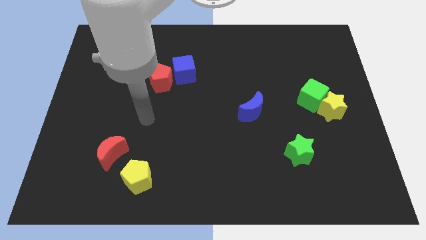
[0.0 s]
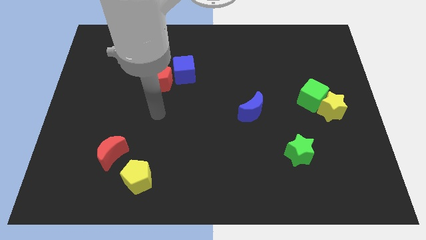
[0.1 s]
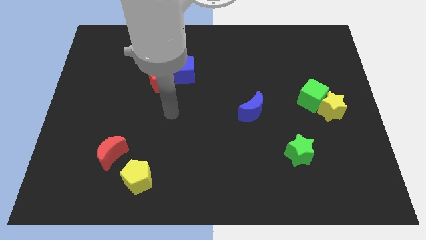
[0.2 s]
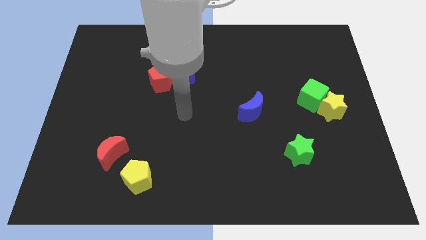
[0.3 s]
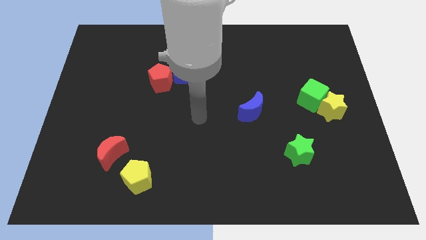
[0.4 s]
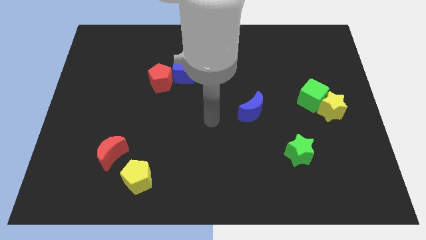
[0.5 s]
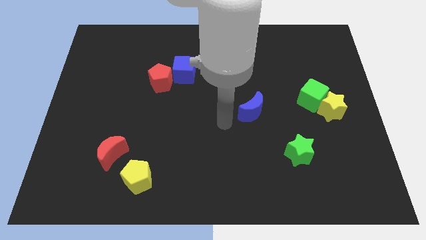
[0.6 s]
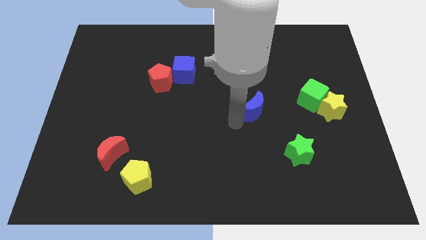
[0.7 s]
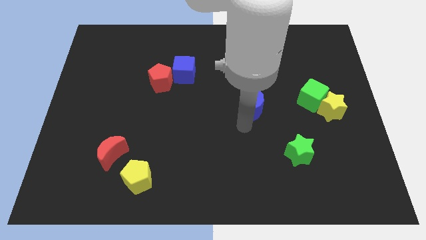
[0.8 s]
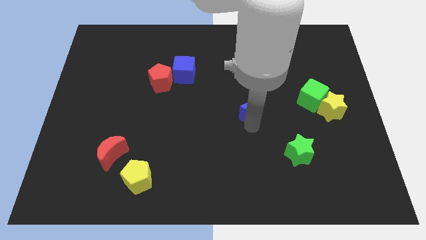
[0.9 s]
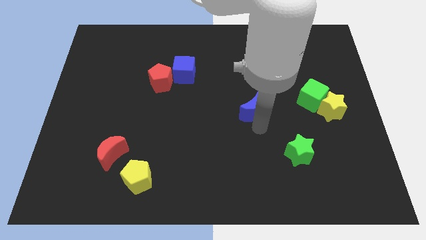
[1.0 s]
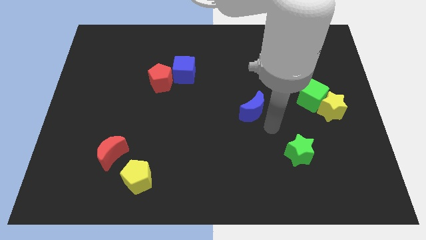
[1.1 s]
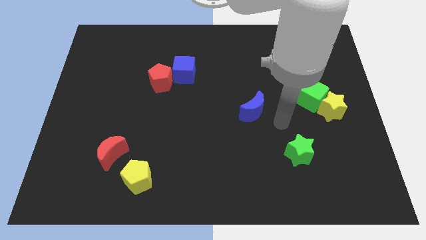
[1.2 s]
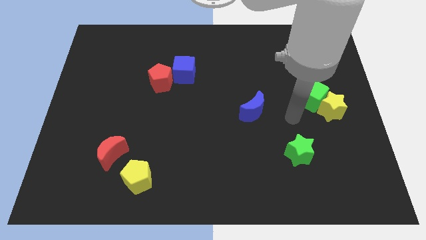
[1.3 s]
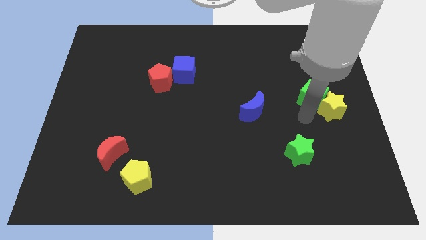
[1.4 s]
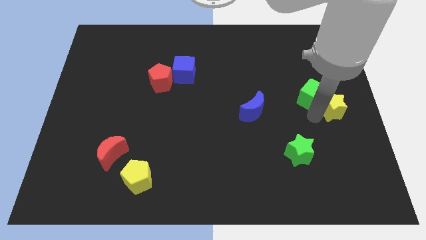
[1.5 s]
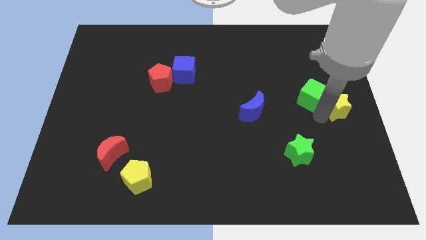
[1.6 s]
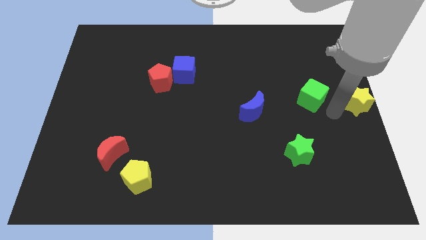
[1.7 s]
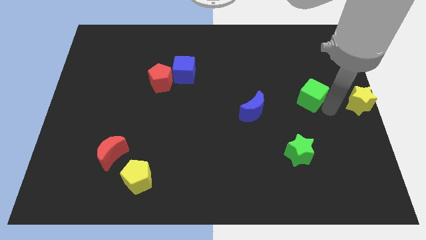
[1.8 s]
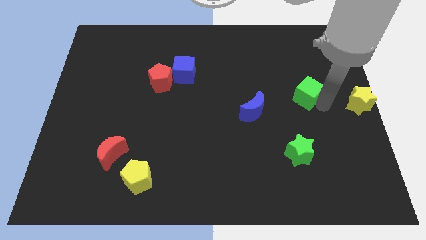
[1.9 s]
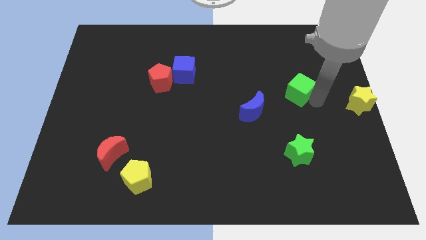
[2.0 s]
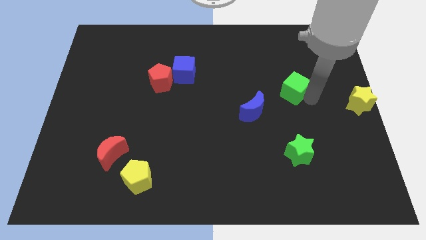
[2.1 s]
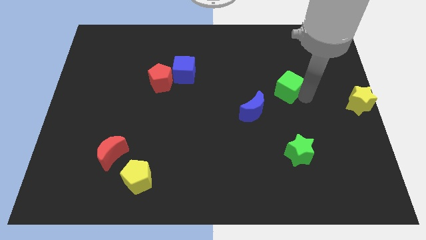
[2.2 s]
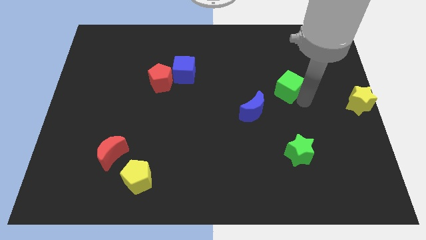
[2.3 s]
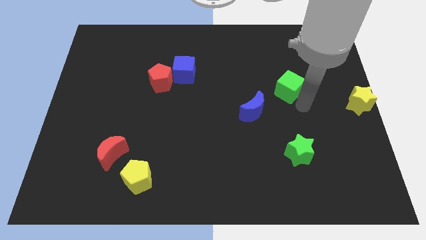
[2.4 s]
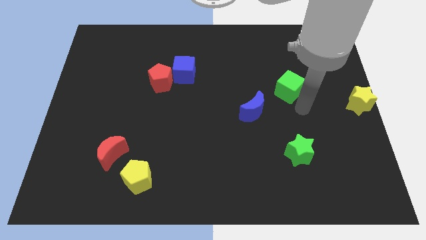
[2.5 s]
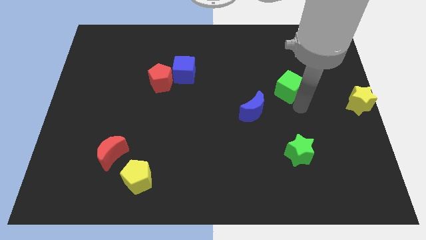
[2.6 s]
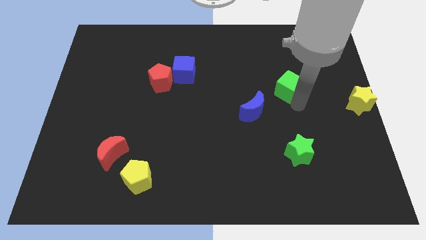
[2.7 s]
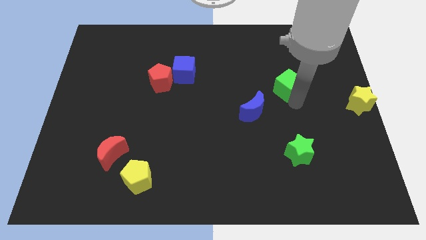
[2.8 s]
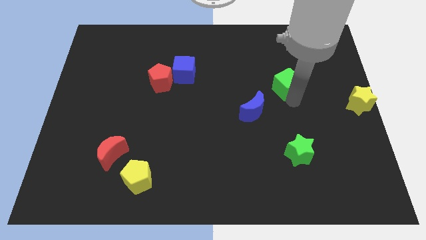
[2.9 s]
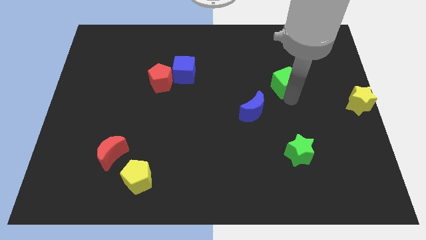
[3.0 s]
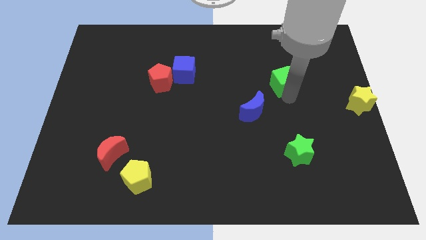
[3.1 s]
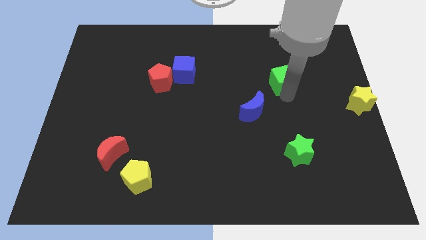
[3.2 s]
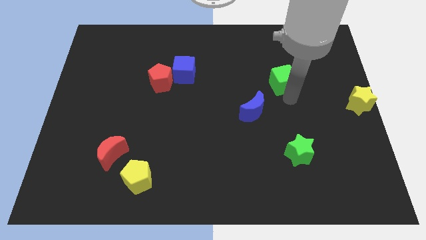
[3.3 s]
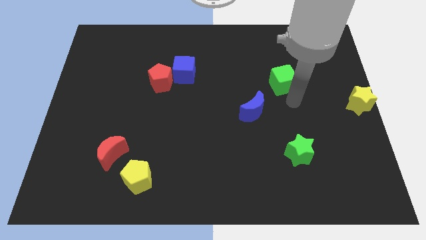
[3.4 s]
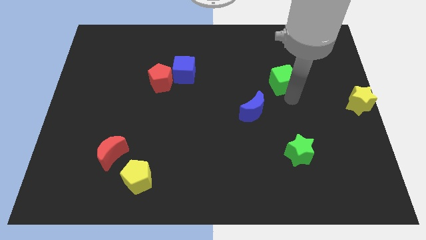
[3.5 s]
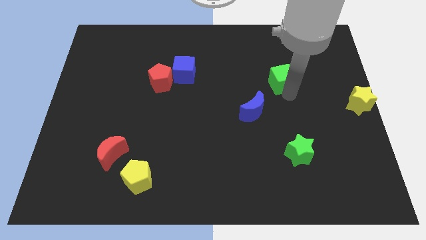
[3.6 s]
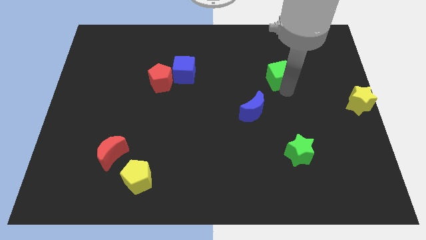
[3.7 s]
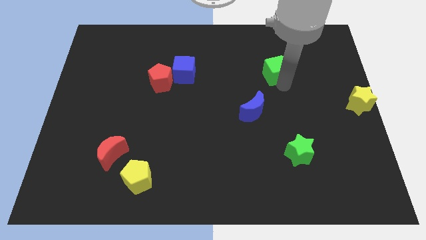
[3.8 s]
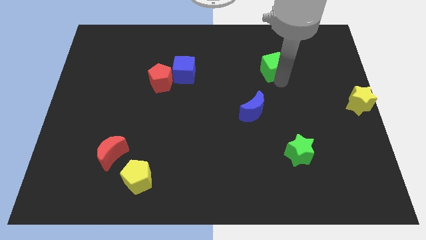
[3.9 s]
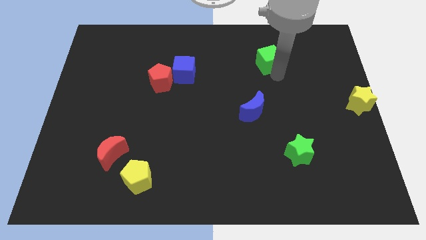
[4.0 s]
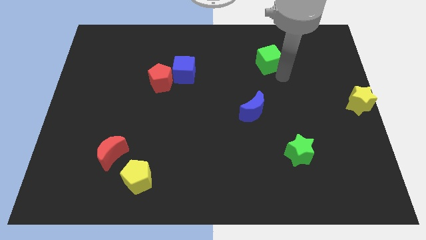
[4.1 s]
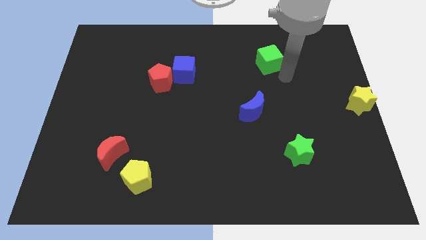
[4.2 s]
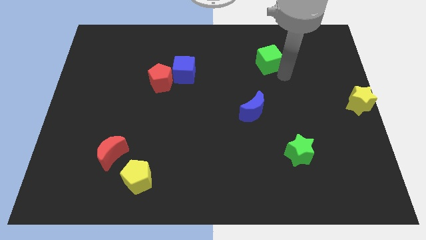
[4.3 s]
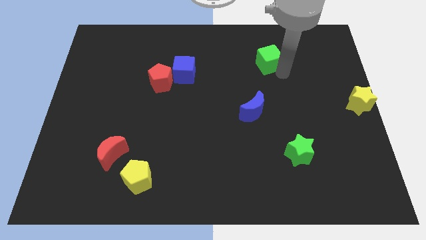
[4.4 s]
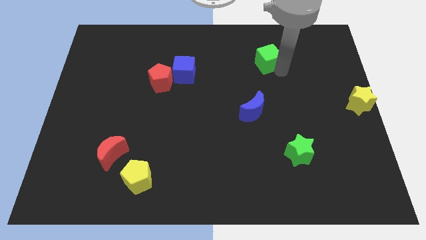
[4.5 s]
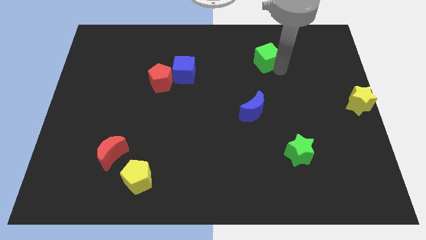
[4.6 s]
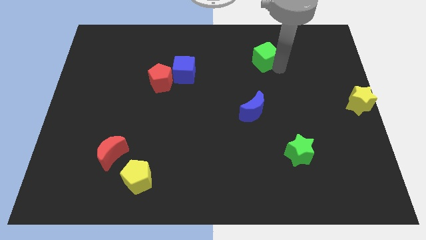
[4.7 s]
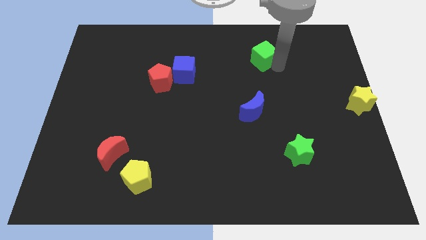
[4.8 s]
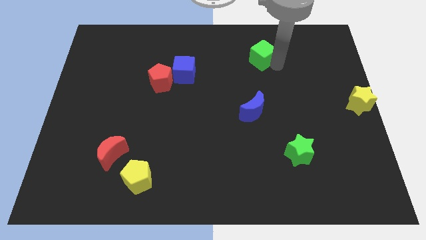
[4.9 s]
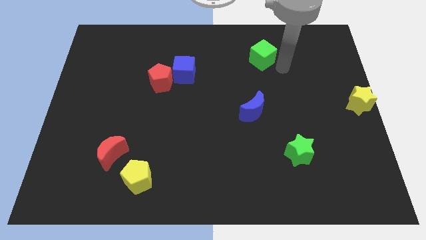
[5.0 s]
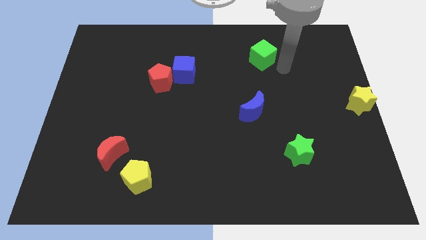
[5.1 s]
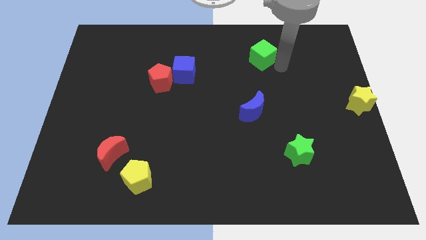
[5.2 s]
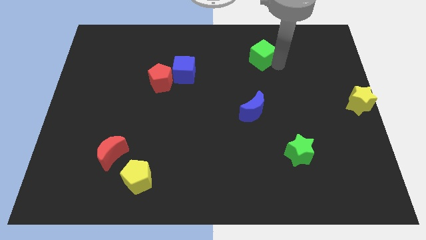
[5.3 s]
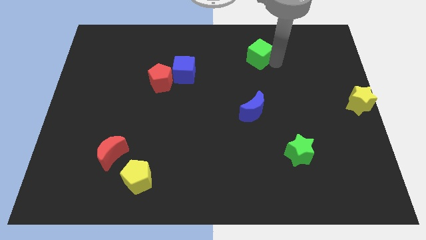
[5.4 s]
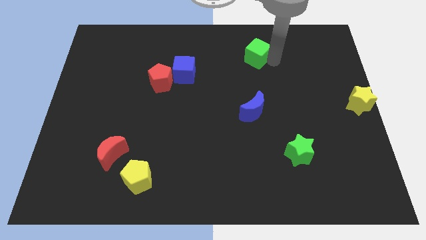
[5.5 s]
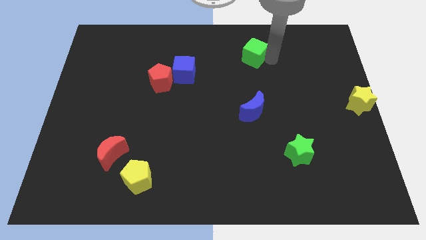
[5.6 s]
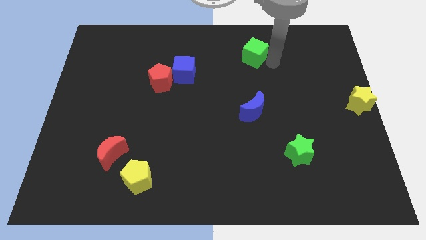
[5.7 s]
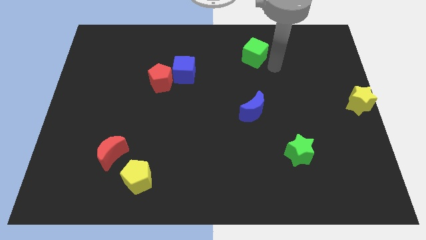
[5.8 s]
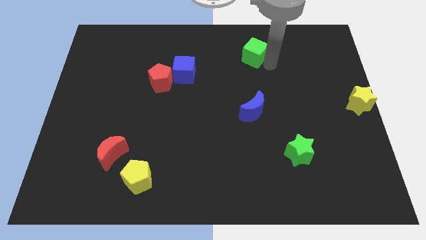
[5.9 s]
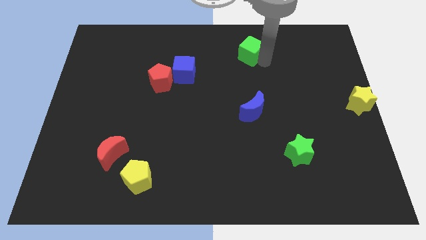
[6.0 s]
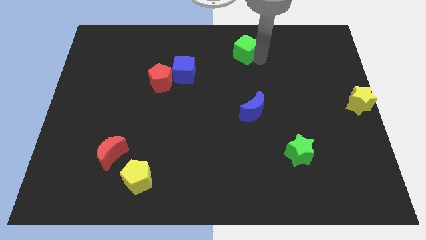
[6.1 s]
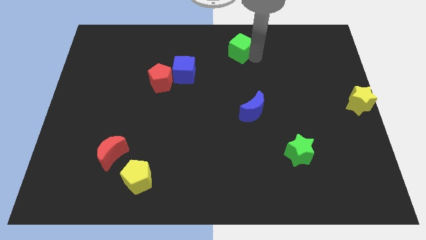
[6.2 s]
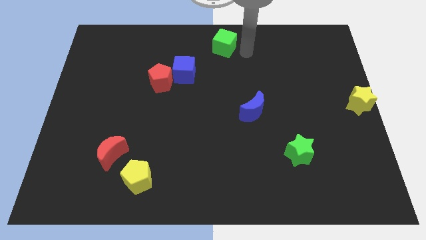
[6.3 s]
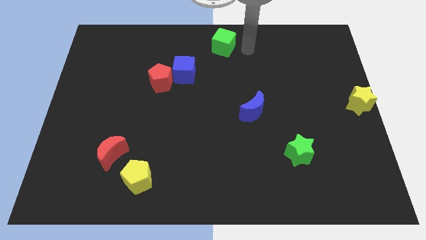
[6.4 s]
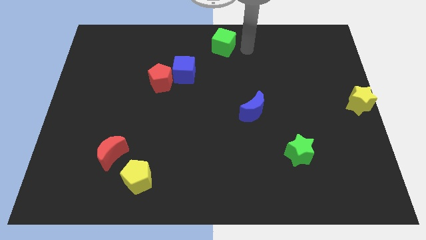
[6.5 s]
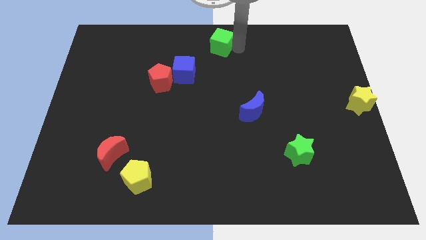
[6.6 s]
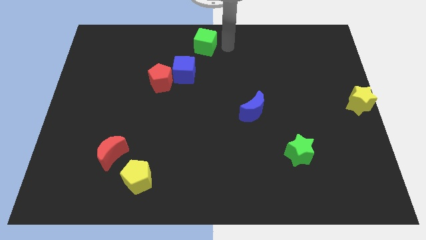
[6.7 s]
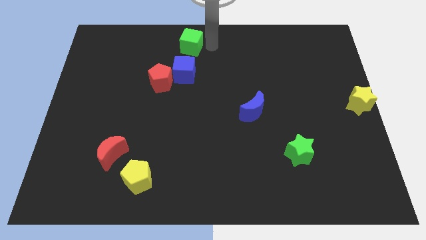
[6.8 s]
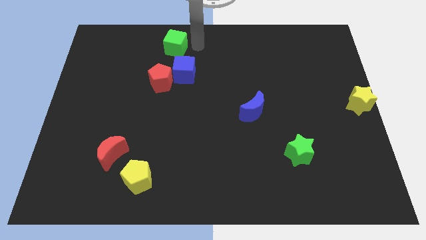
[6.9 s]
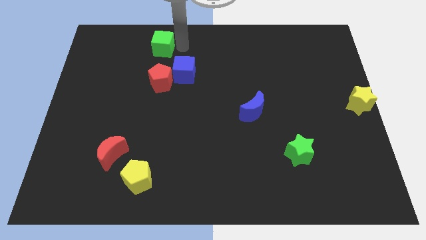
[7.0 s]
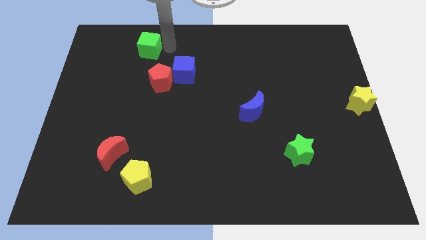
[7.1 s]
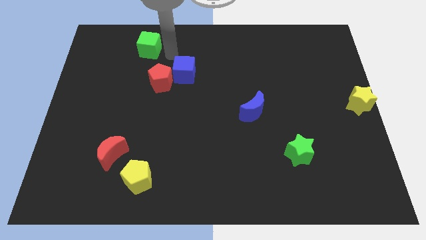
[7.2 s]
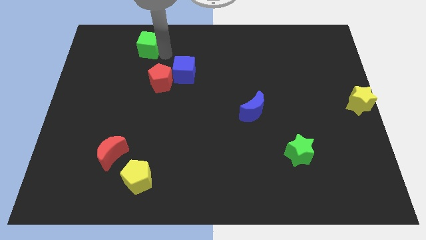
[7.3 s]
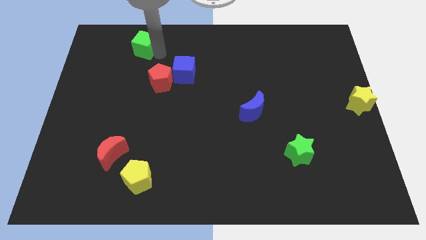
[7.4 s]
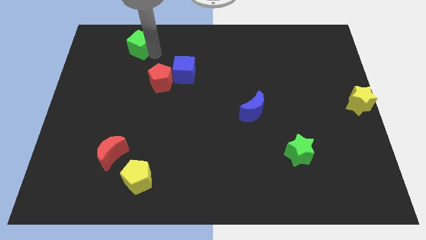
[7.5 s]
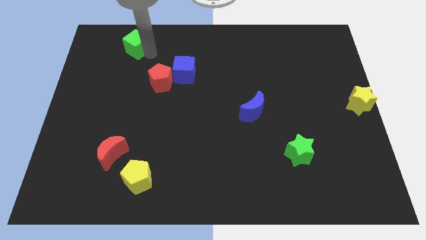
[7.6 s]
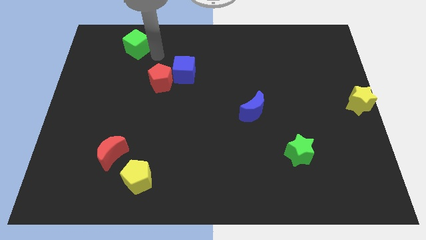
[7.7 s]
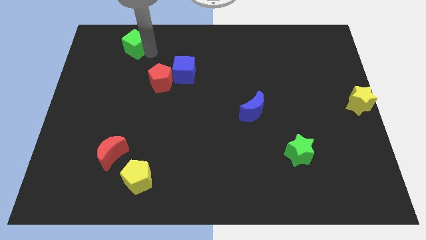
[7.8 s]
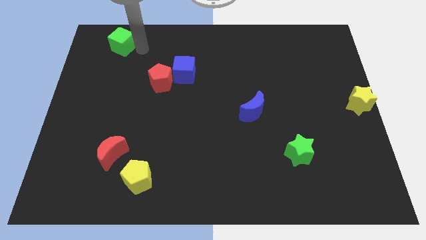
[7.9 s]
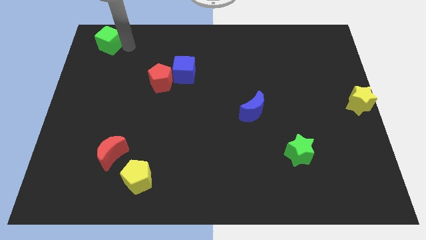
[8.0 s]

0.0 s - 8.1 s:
push the green cube to the upper left corner
